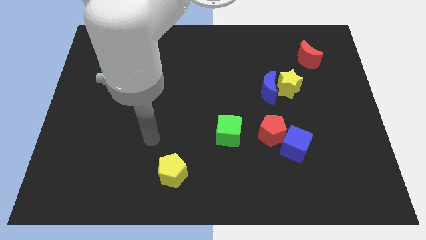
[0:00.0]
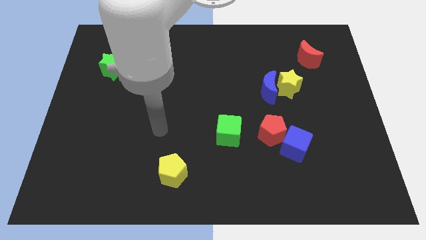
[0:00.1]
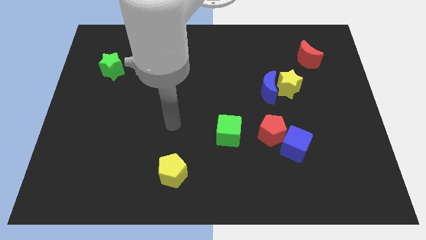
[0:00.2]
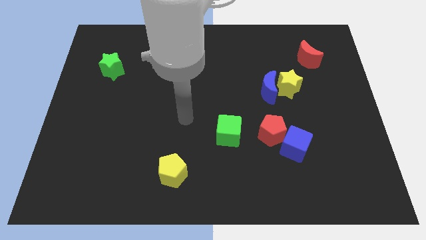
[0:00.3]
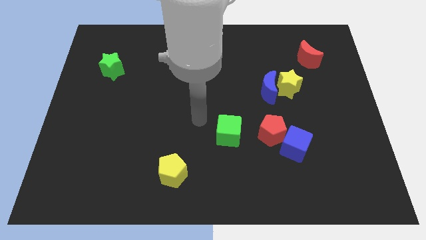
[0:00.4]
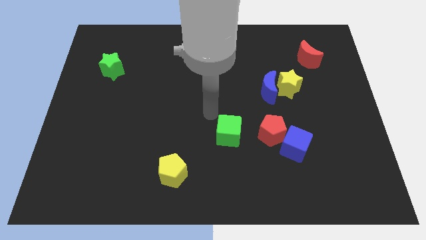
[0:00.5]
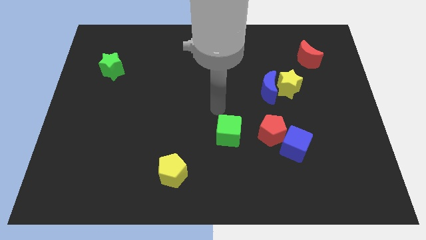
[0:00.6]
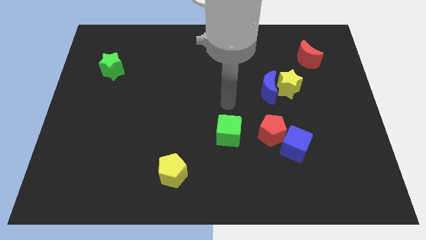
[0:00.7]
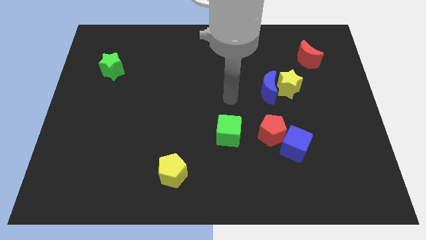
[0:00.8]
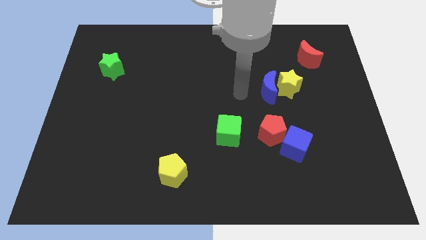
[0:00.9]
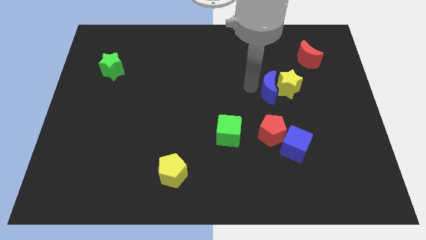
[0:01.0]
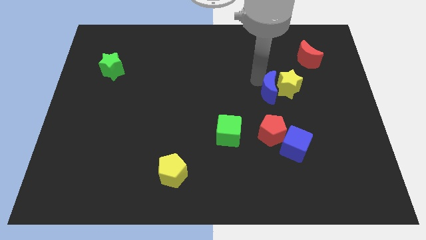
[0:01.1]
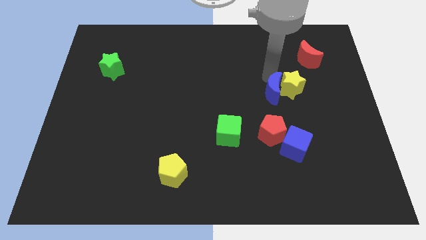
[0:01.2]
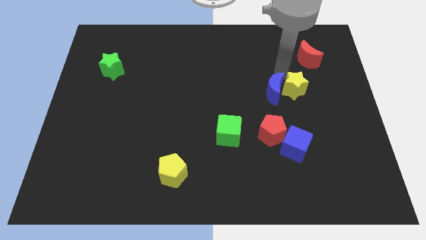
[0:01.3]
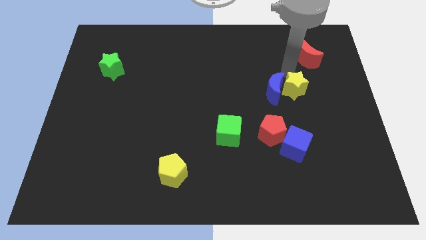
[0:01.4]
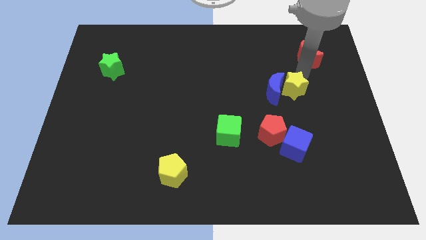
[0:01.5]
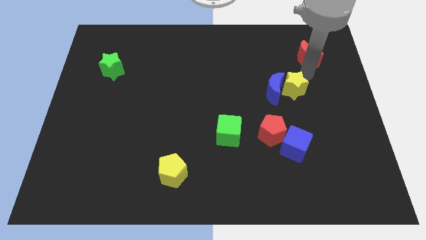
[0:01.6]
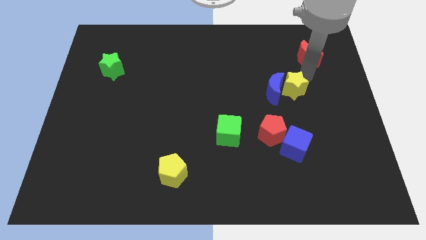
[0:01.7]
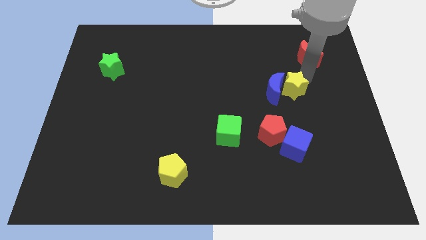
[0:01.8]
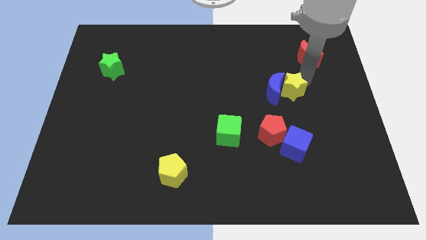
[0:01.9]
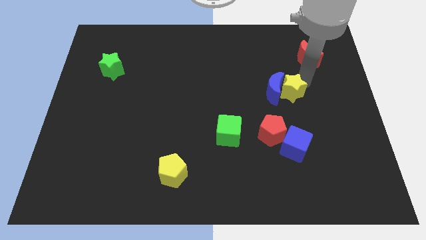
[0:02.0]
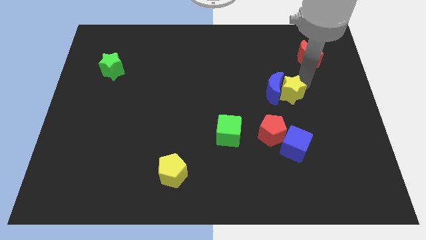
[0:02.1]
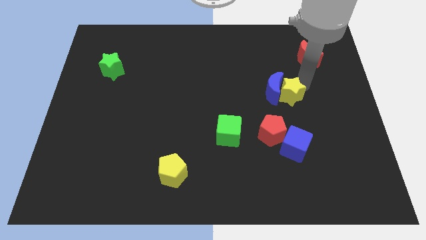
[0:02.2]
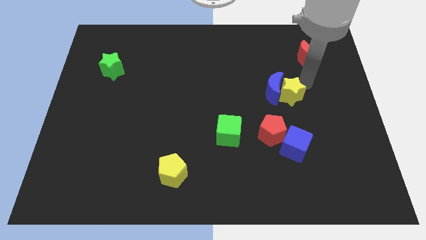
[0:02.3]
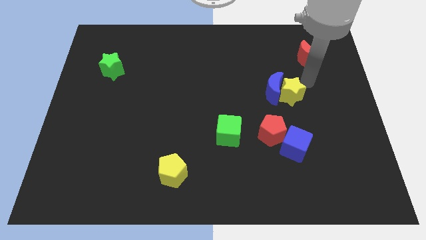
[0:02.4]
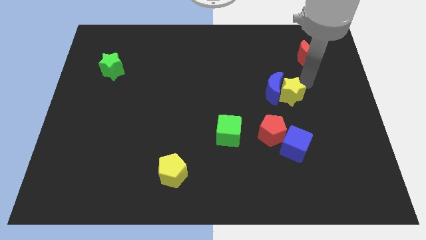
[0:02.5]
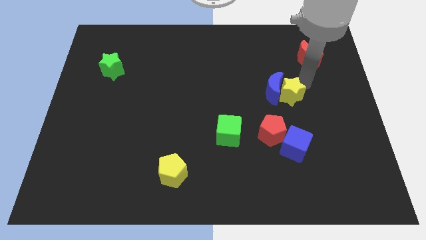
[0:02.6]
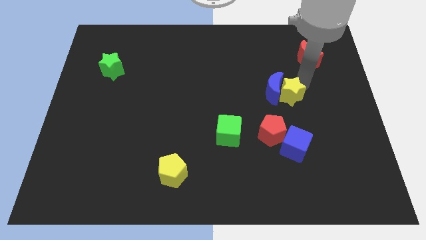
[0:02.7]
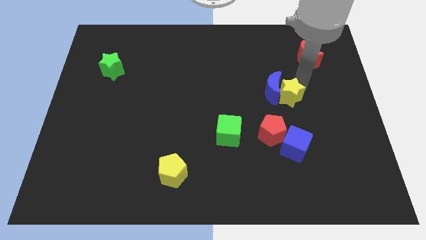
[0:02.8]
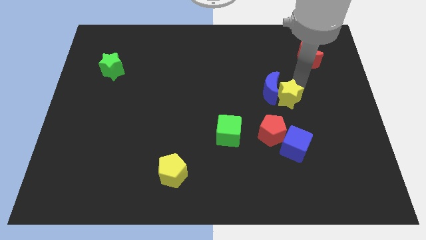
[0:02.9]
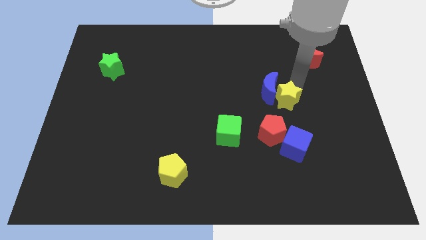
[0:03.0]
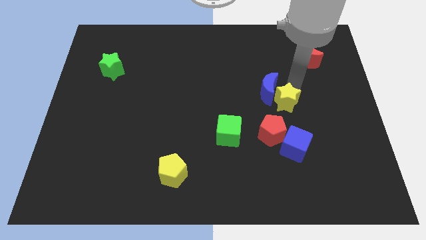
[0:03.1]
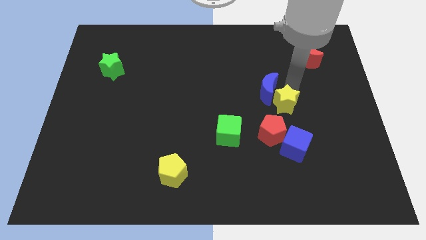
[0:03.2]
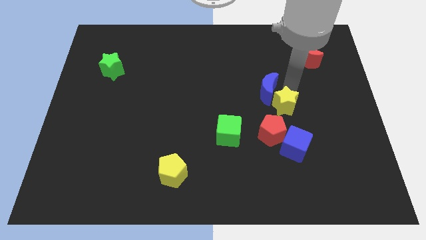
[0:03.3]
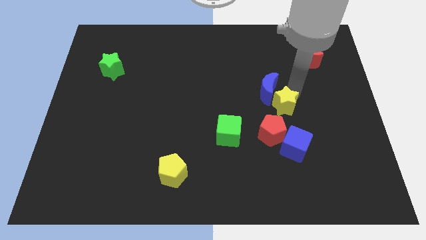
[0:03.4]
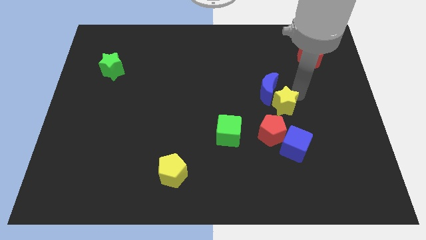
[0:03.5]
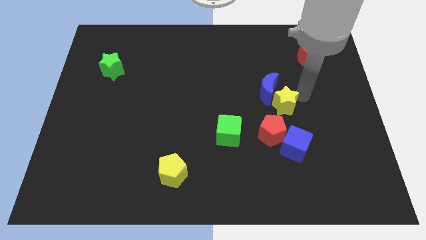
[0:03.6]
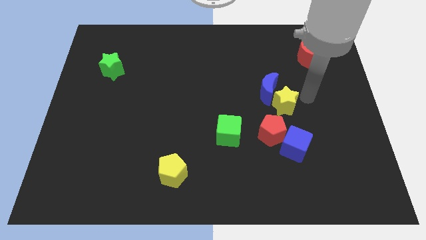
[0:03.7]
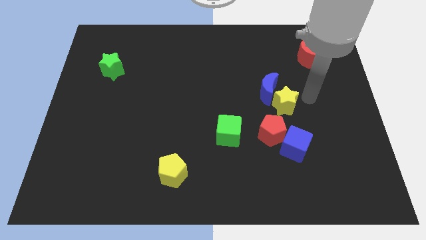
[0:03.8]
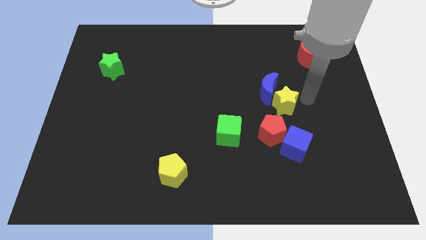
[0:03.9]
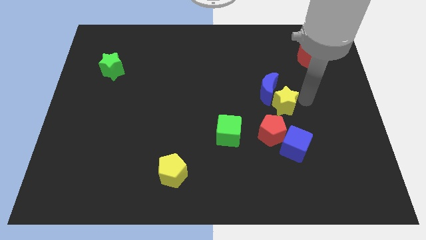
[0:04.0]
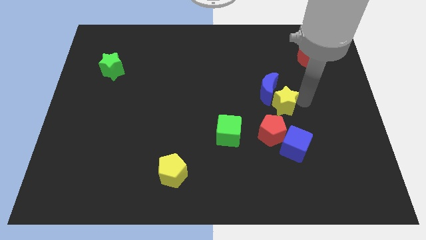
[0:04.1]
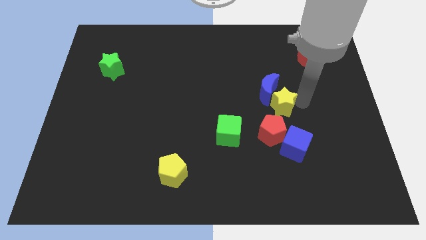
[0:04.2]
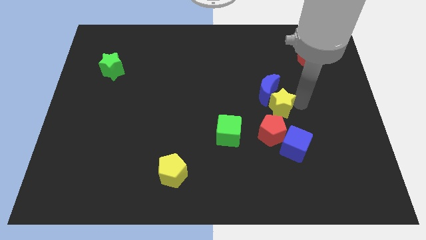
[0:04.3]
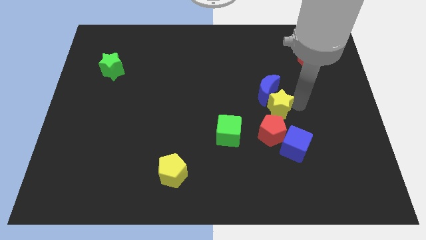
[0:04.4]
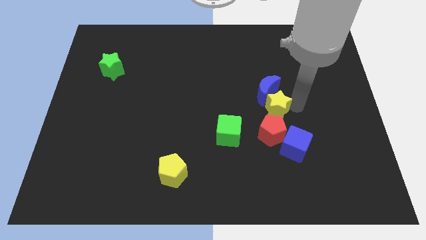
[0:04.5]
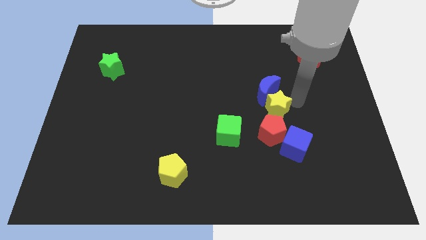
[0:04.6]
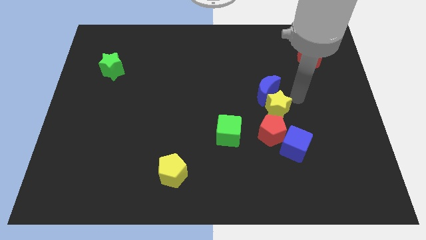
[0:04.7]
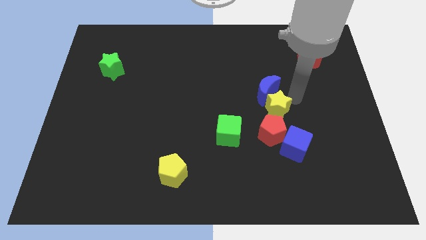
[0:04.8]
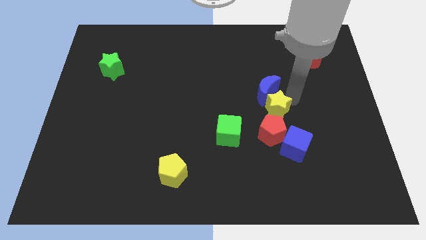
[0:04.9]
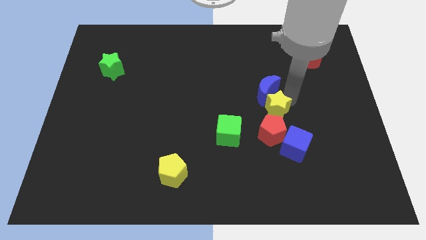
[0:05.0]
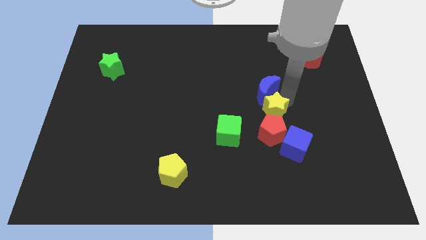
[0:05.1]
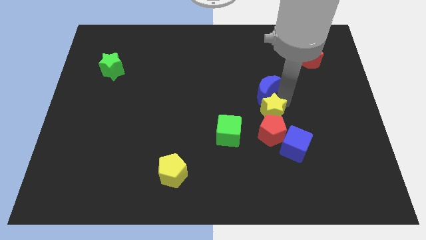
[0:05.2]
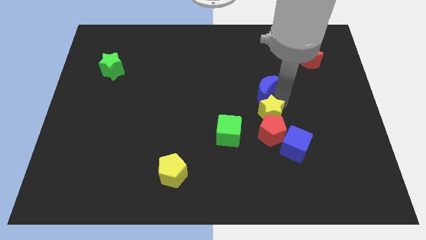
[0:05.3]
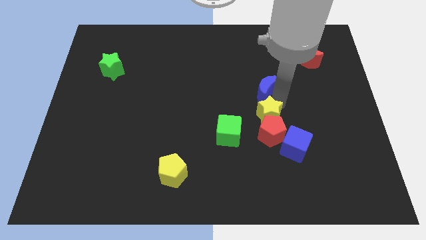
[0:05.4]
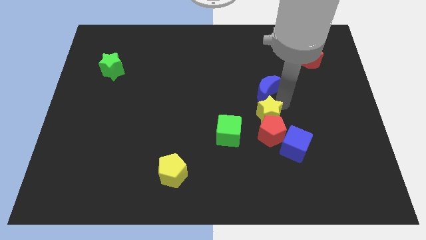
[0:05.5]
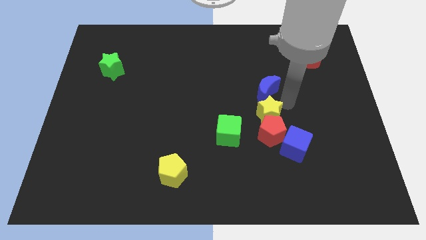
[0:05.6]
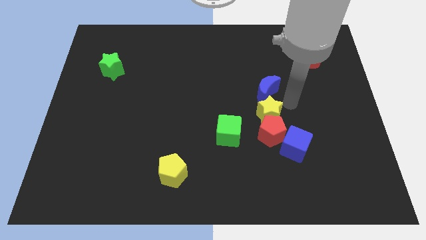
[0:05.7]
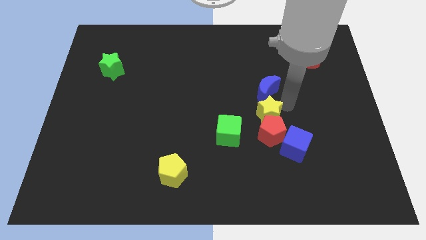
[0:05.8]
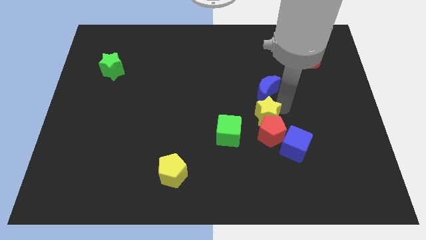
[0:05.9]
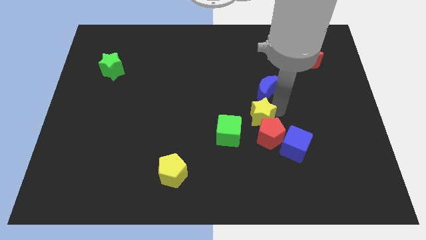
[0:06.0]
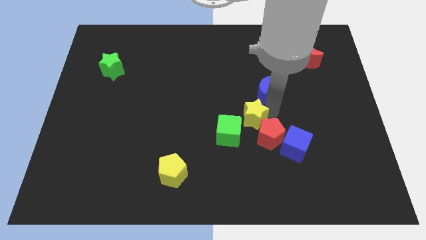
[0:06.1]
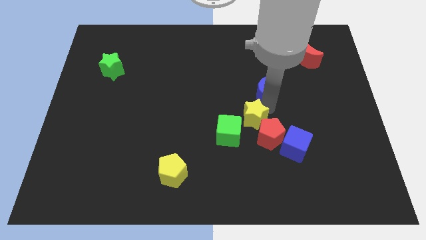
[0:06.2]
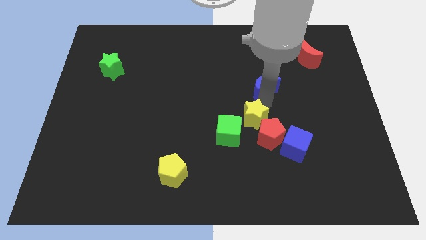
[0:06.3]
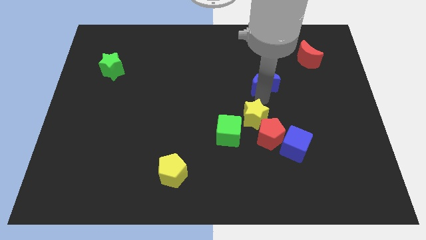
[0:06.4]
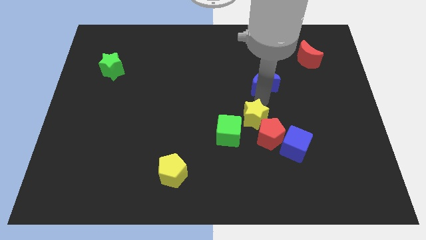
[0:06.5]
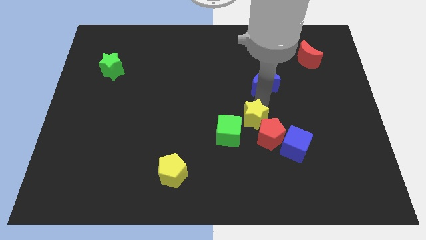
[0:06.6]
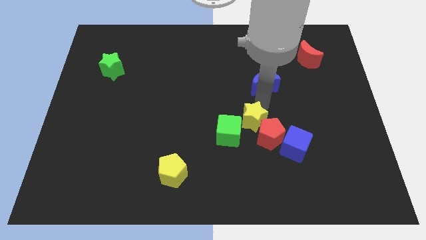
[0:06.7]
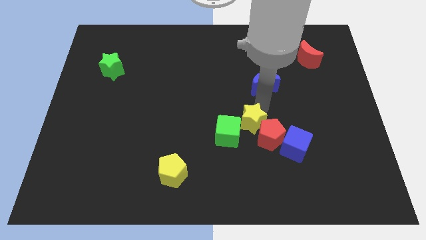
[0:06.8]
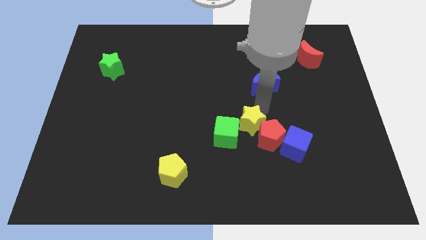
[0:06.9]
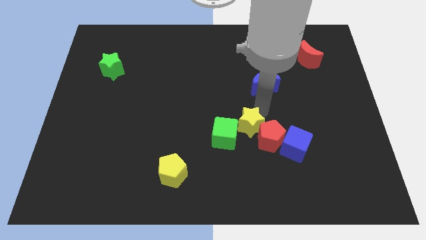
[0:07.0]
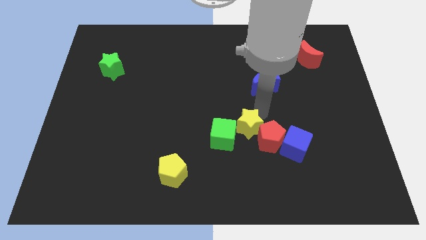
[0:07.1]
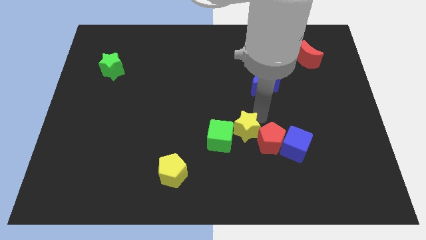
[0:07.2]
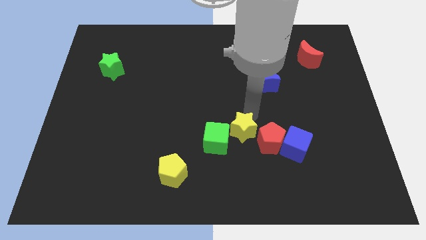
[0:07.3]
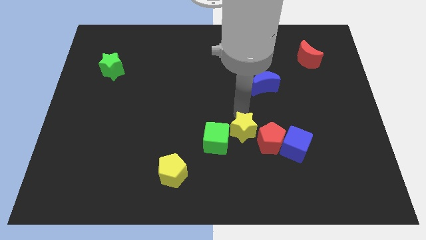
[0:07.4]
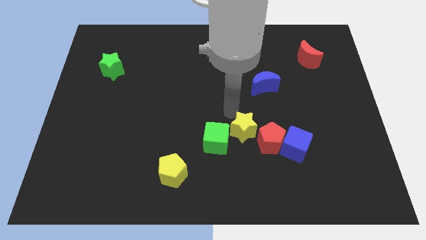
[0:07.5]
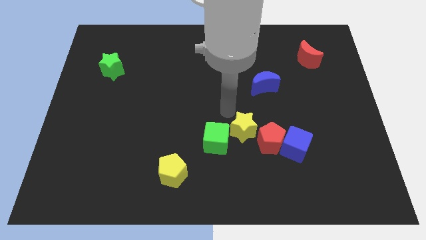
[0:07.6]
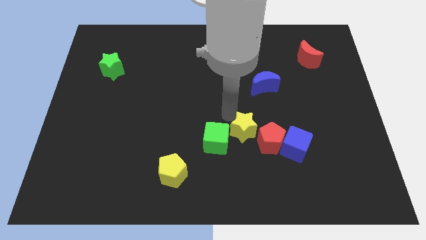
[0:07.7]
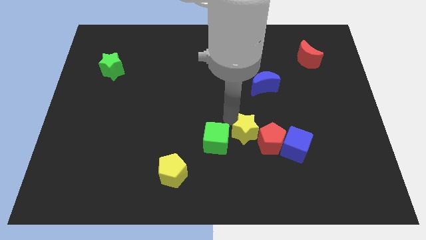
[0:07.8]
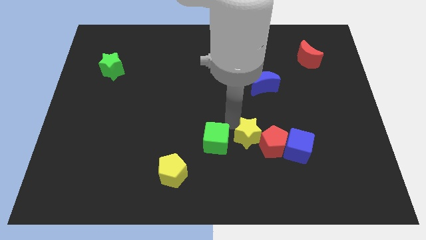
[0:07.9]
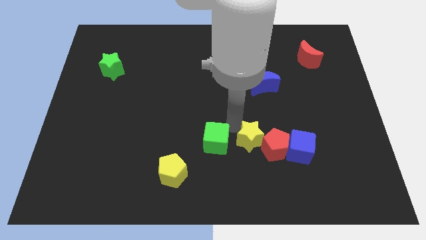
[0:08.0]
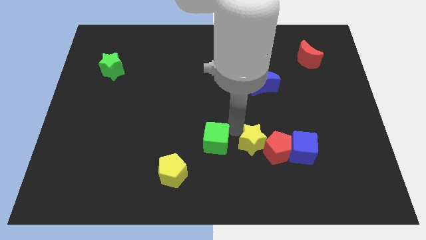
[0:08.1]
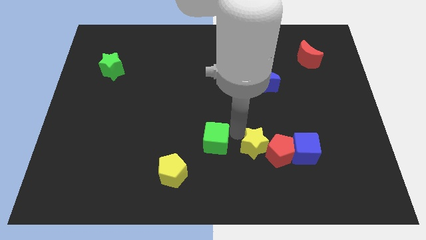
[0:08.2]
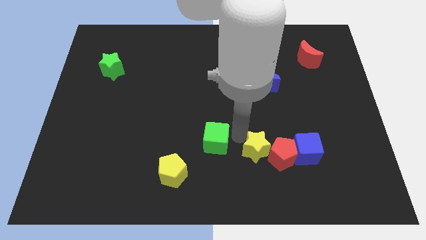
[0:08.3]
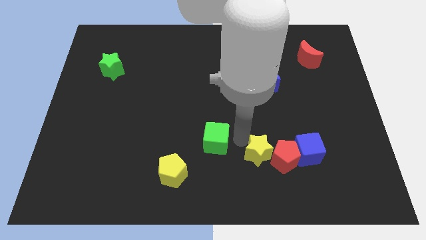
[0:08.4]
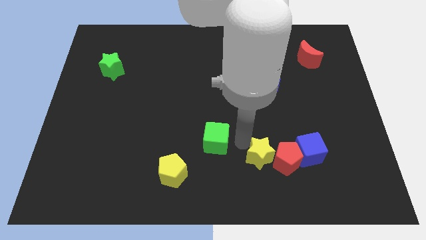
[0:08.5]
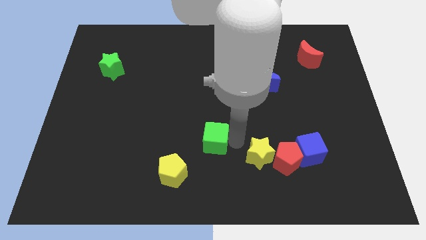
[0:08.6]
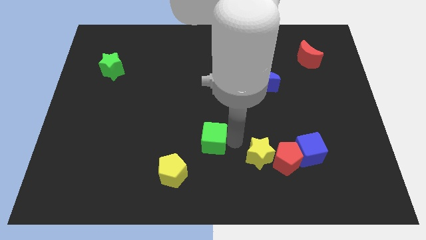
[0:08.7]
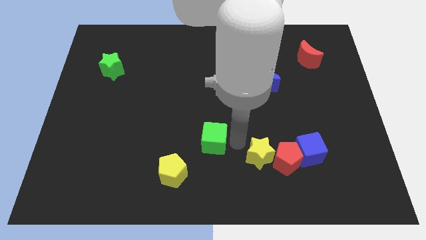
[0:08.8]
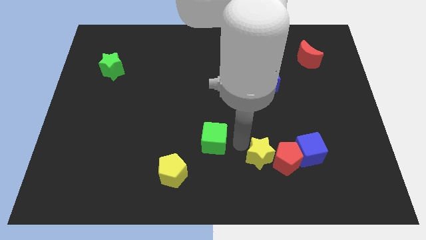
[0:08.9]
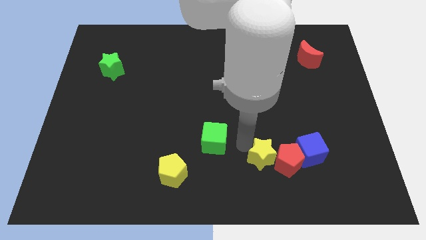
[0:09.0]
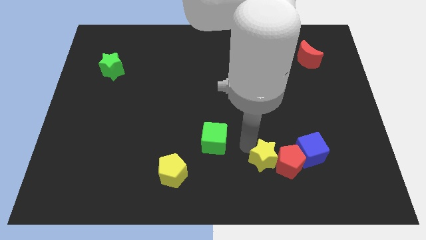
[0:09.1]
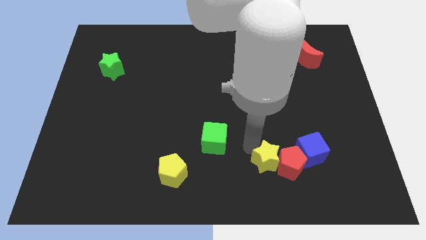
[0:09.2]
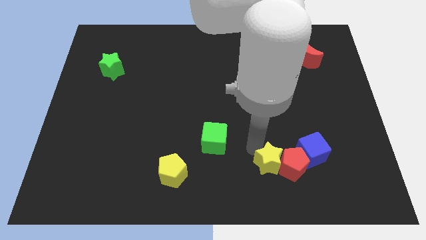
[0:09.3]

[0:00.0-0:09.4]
move the yellow star diagonally down and to the left of the blue cube
